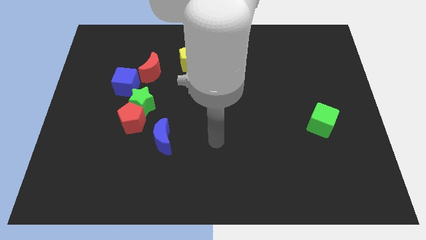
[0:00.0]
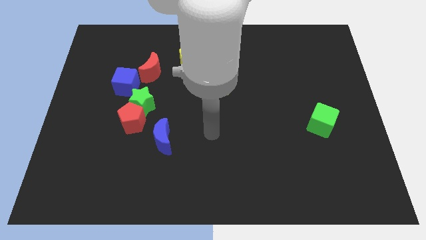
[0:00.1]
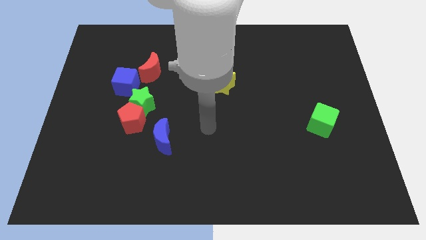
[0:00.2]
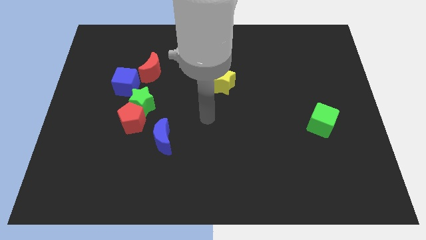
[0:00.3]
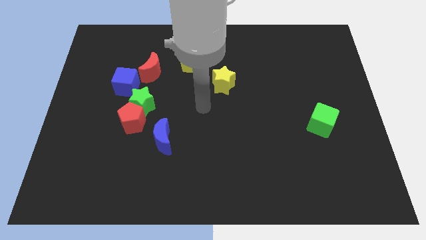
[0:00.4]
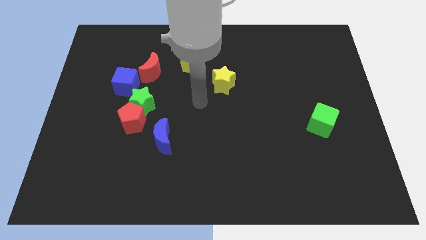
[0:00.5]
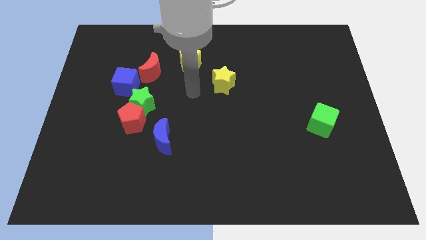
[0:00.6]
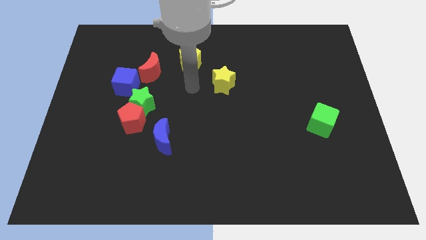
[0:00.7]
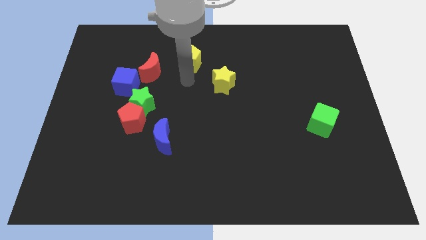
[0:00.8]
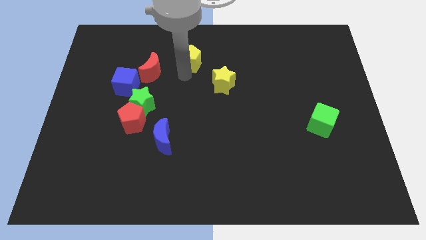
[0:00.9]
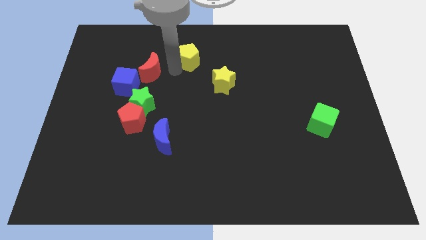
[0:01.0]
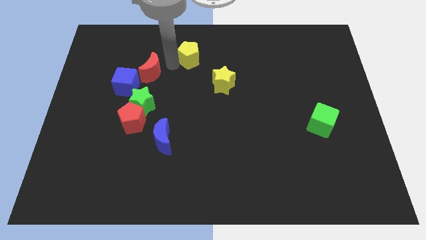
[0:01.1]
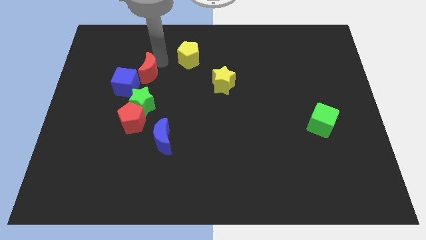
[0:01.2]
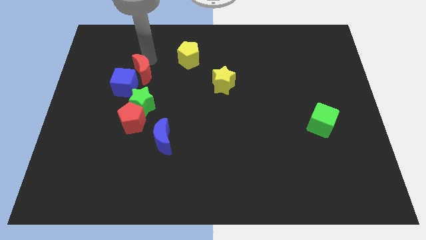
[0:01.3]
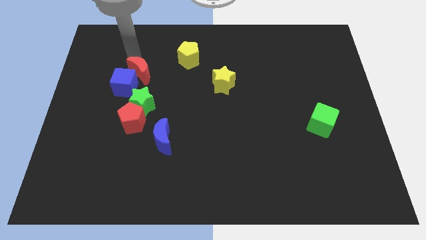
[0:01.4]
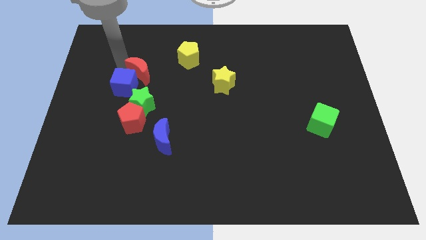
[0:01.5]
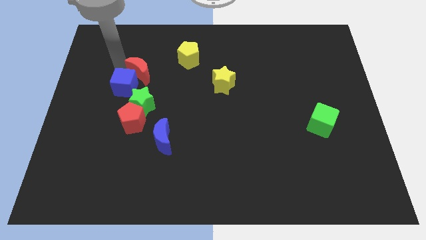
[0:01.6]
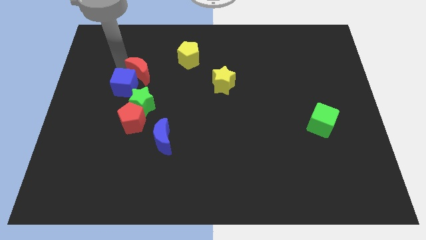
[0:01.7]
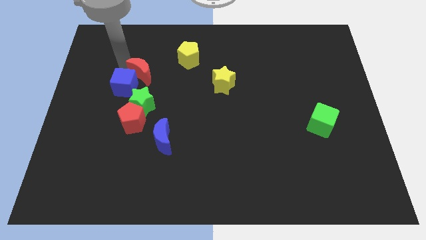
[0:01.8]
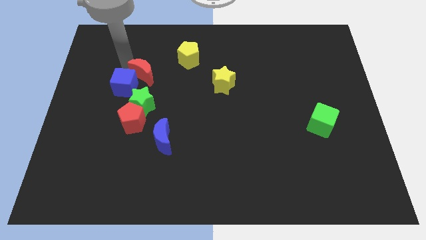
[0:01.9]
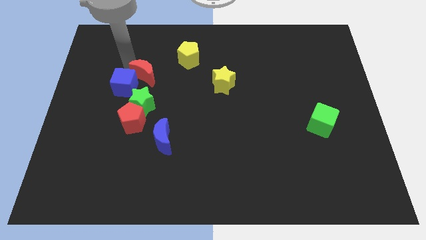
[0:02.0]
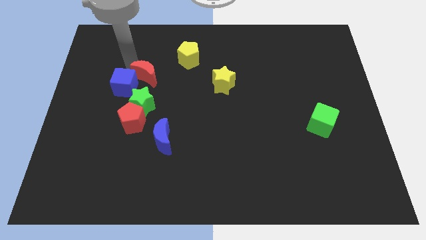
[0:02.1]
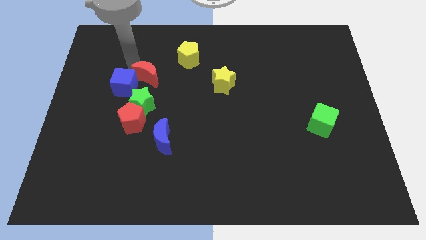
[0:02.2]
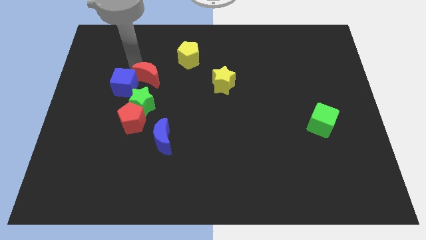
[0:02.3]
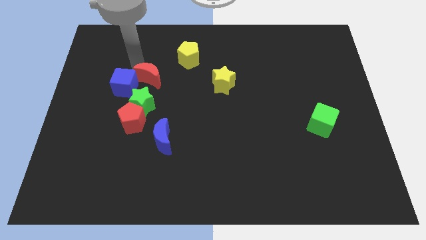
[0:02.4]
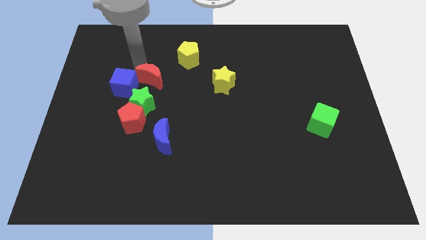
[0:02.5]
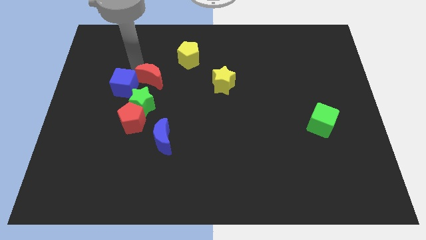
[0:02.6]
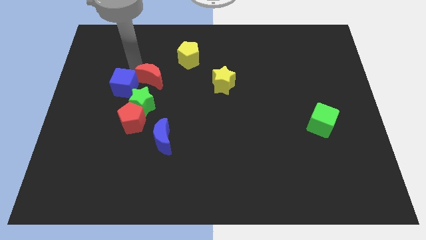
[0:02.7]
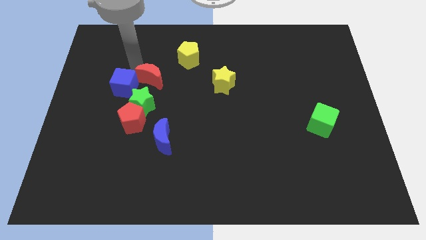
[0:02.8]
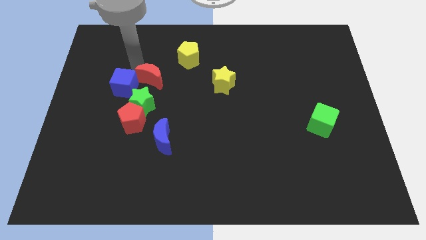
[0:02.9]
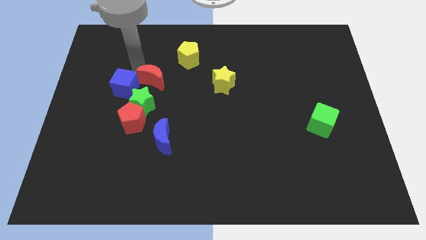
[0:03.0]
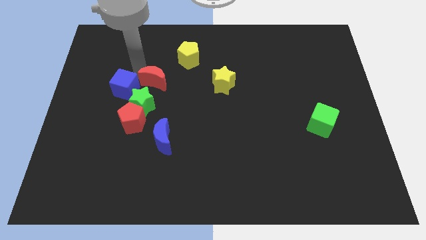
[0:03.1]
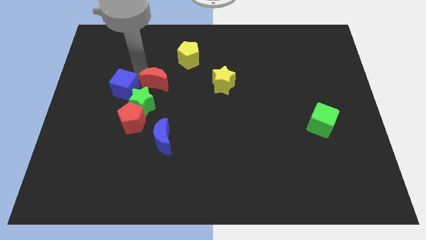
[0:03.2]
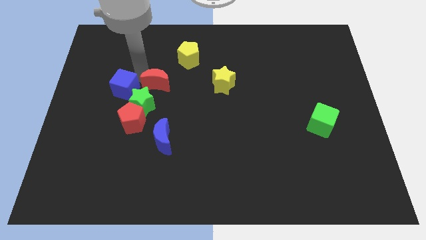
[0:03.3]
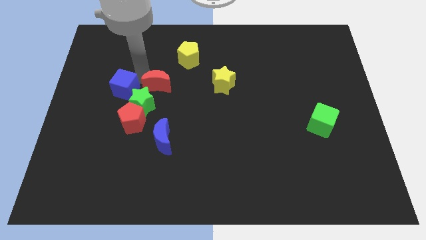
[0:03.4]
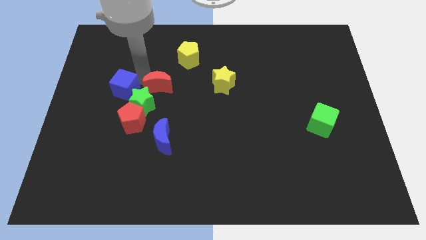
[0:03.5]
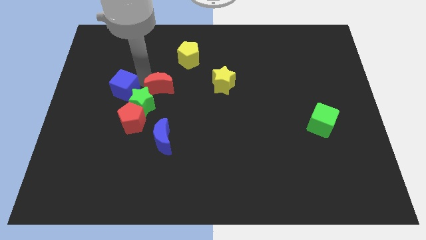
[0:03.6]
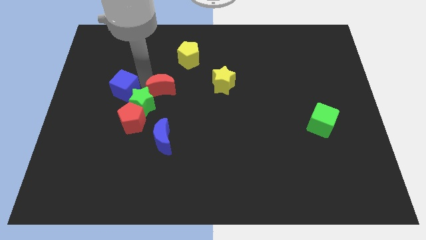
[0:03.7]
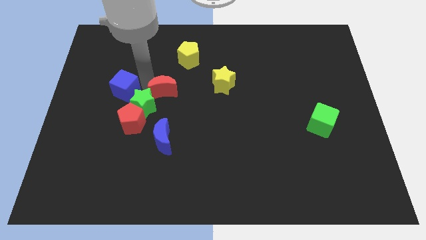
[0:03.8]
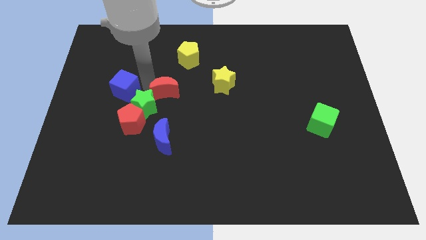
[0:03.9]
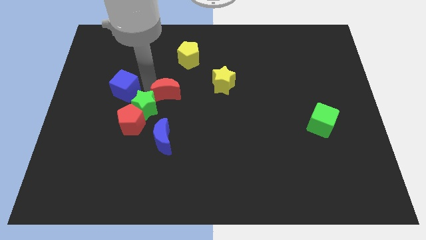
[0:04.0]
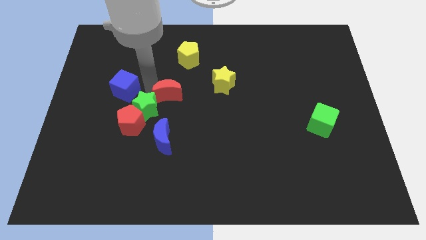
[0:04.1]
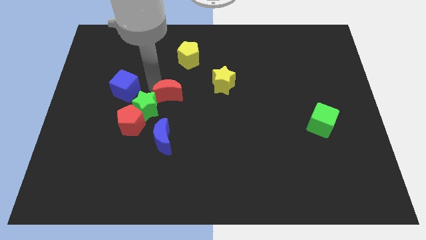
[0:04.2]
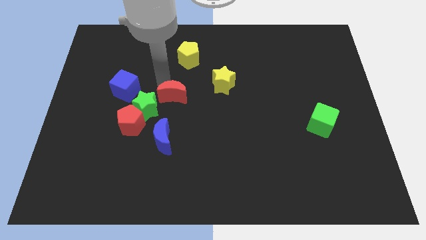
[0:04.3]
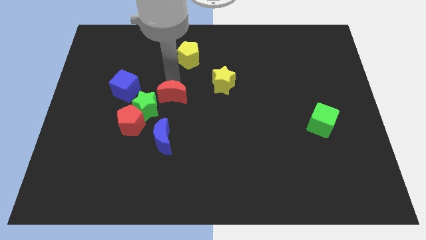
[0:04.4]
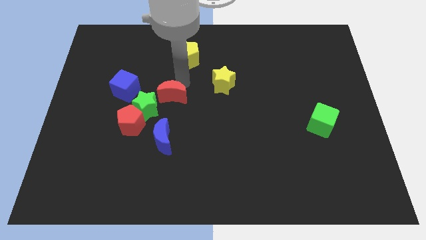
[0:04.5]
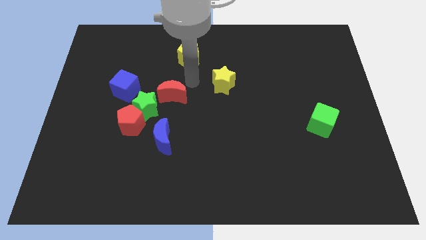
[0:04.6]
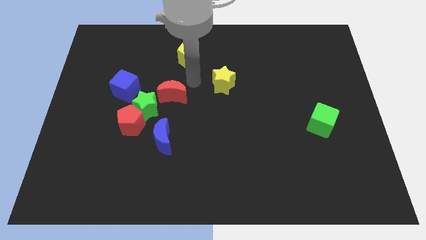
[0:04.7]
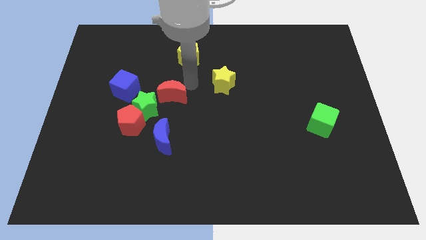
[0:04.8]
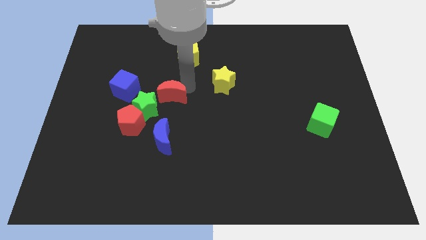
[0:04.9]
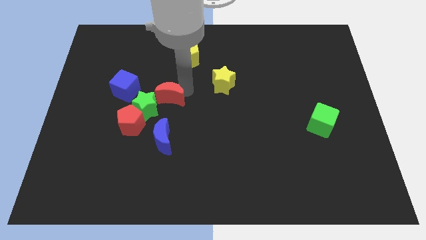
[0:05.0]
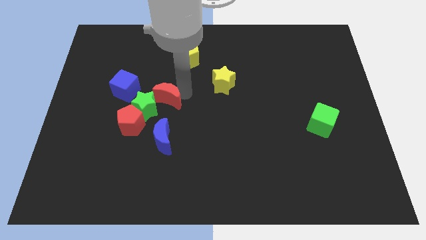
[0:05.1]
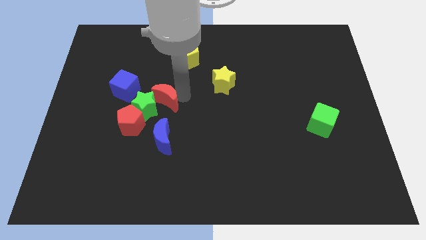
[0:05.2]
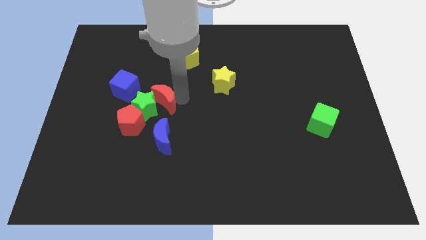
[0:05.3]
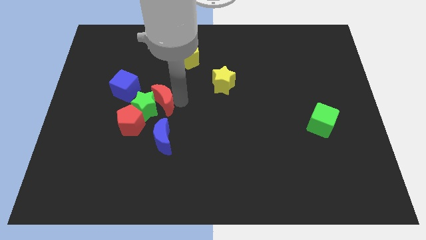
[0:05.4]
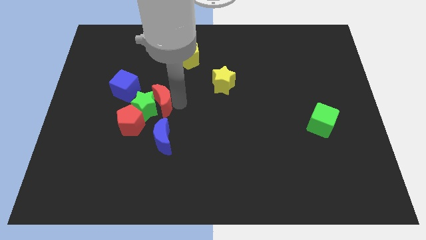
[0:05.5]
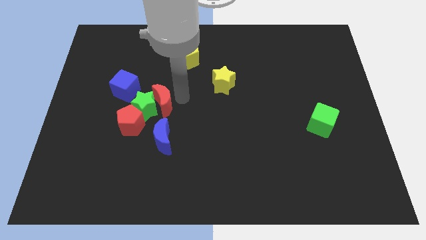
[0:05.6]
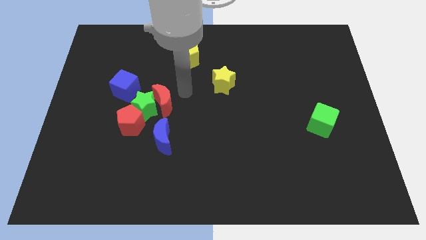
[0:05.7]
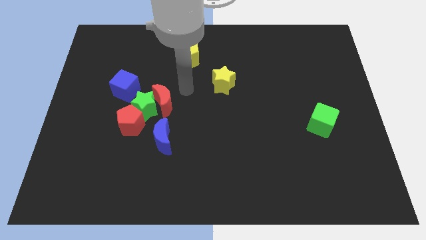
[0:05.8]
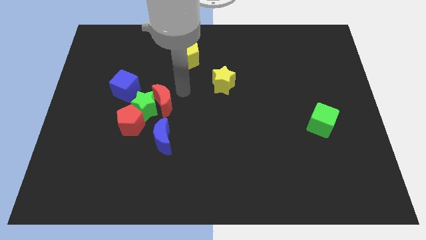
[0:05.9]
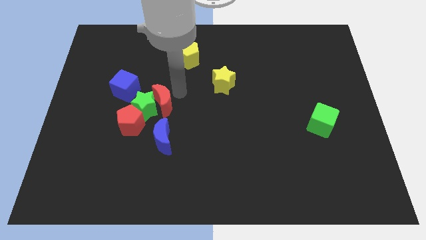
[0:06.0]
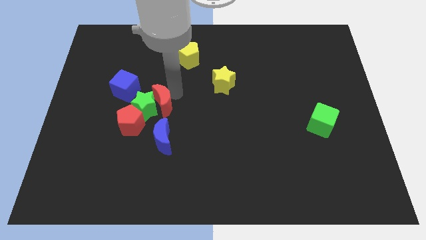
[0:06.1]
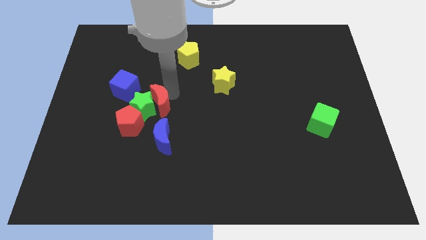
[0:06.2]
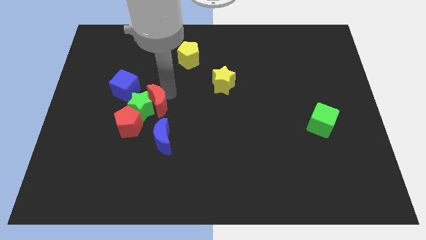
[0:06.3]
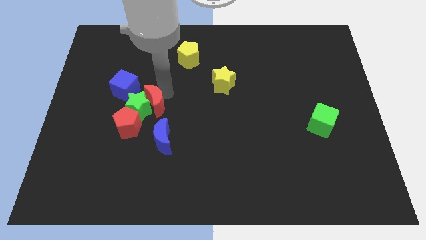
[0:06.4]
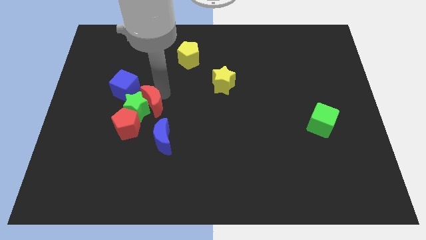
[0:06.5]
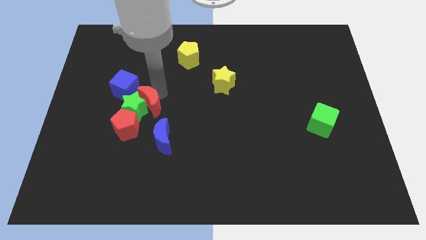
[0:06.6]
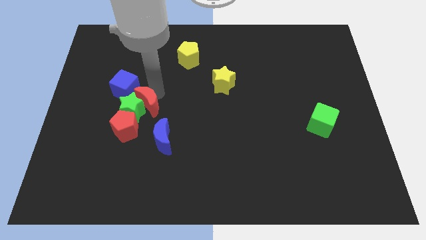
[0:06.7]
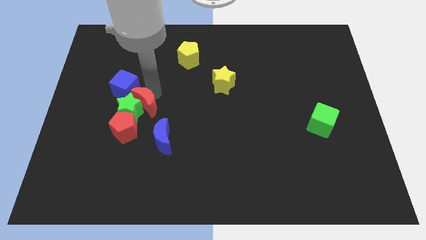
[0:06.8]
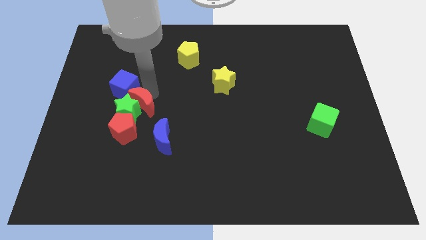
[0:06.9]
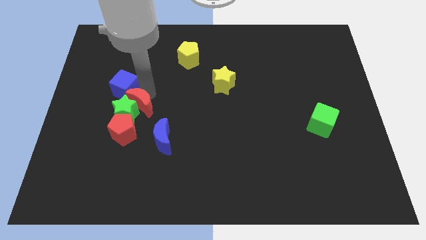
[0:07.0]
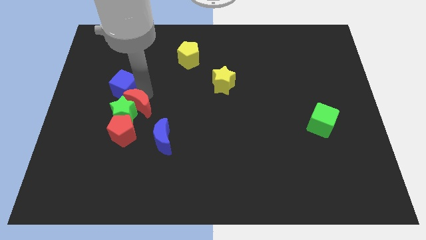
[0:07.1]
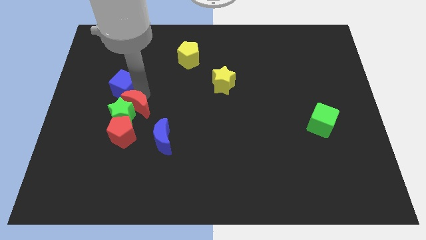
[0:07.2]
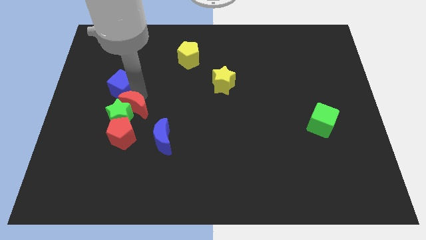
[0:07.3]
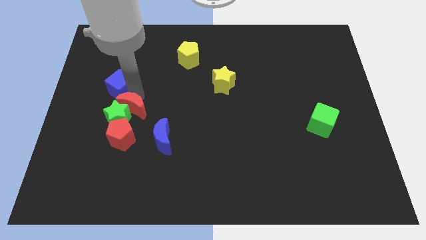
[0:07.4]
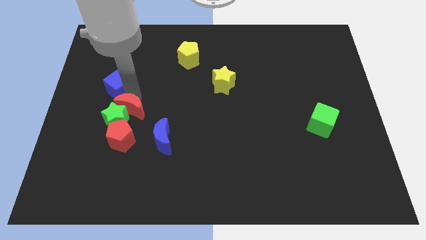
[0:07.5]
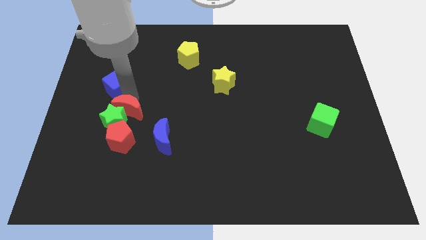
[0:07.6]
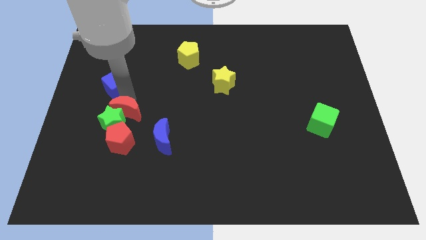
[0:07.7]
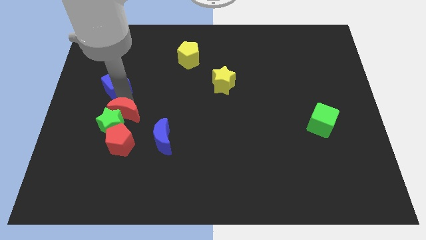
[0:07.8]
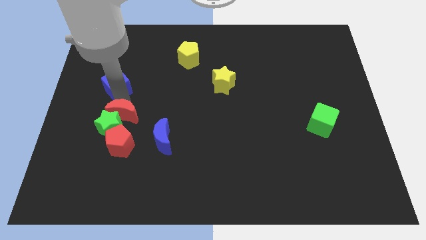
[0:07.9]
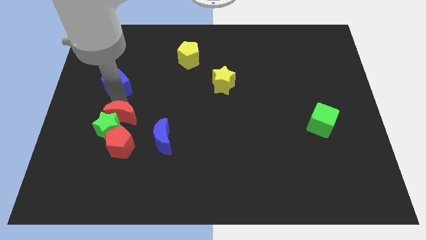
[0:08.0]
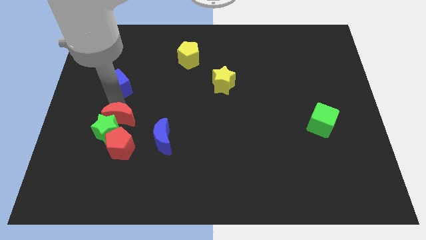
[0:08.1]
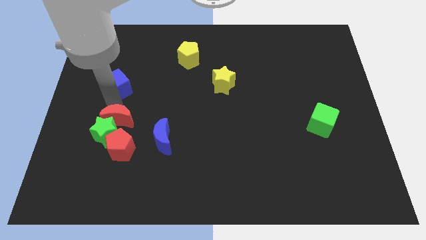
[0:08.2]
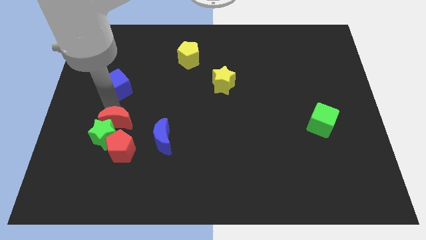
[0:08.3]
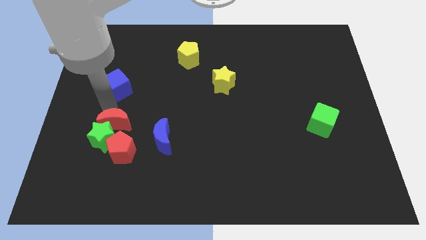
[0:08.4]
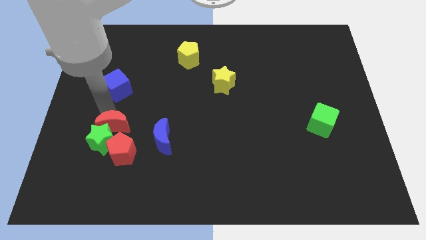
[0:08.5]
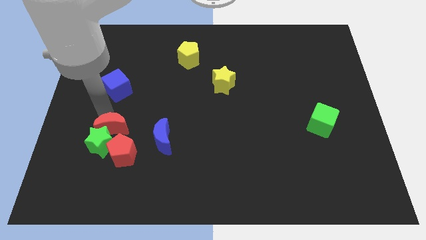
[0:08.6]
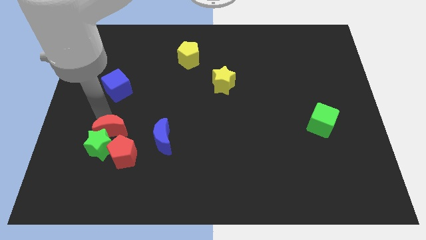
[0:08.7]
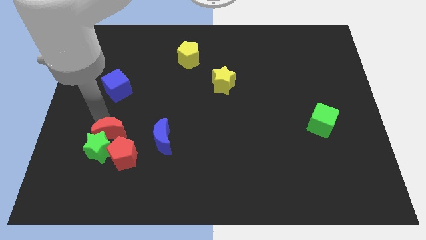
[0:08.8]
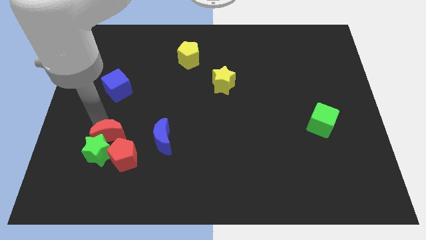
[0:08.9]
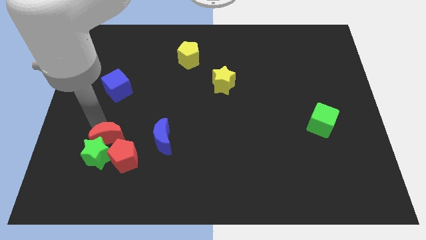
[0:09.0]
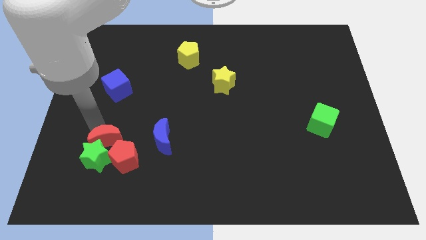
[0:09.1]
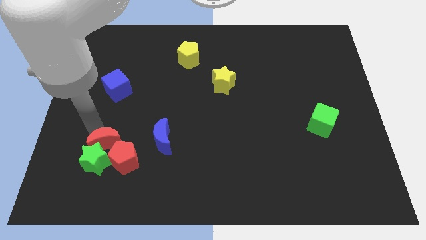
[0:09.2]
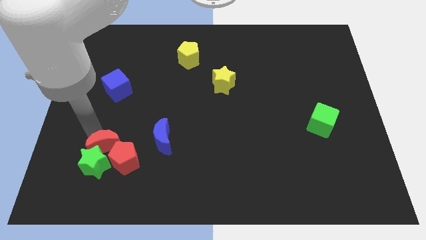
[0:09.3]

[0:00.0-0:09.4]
slide the red moon towards the red pentagon
